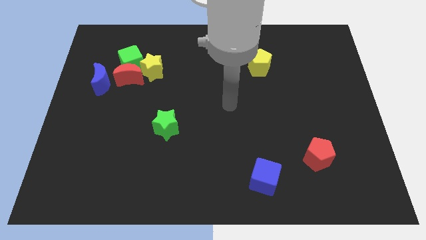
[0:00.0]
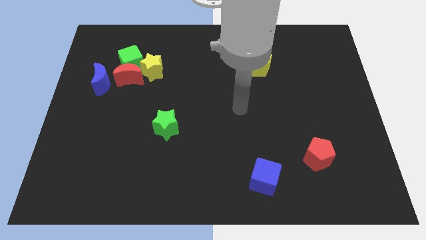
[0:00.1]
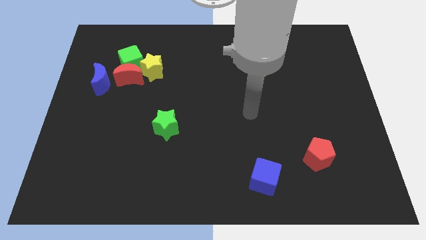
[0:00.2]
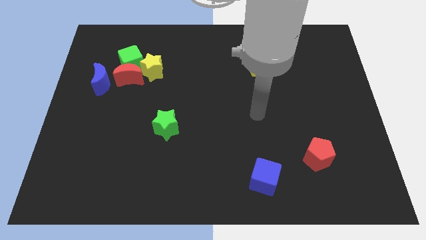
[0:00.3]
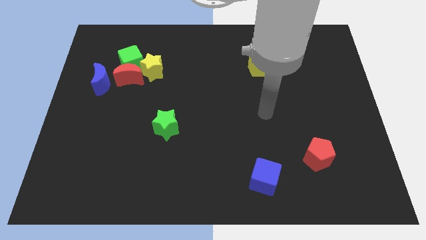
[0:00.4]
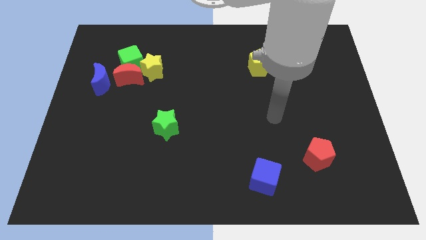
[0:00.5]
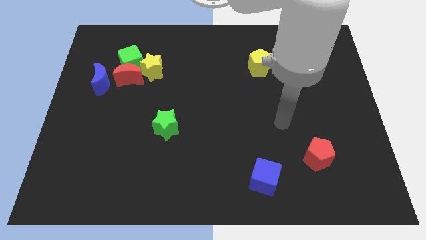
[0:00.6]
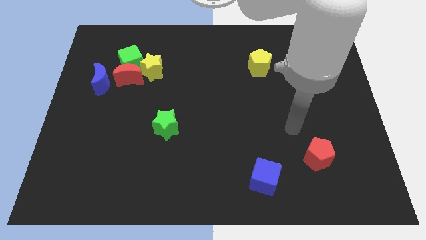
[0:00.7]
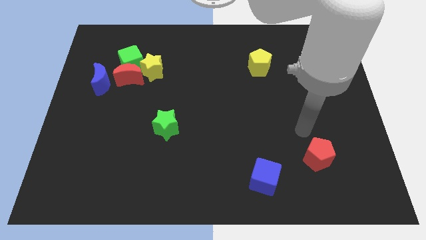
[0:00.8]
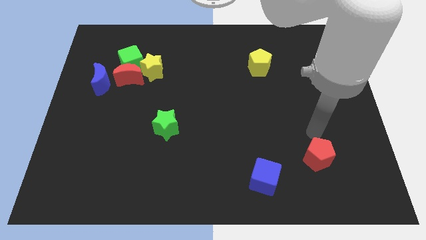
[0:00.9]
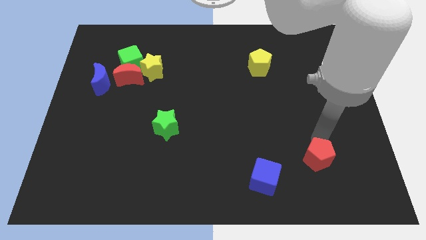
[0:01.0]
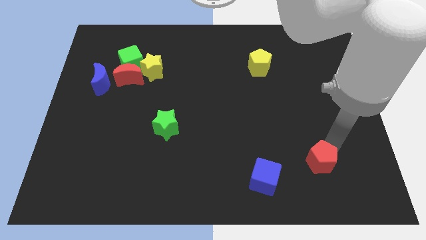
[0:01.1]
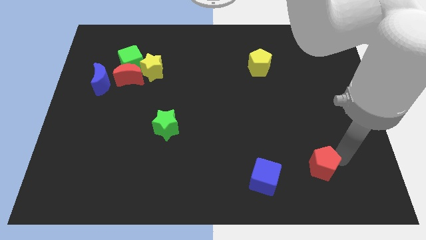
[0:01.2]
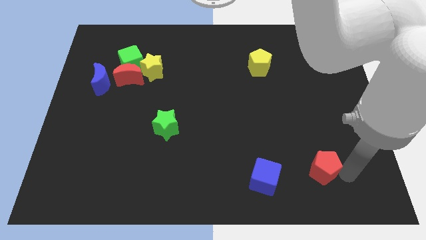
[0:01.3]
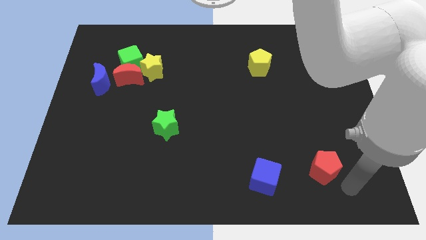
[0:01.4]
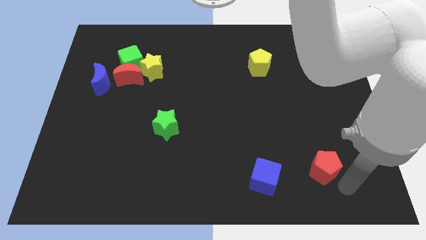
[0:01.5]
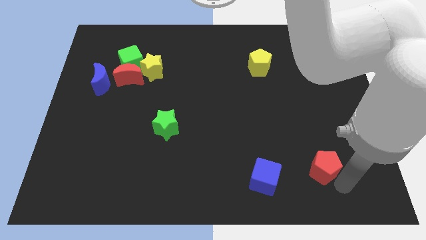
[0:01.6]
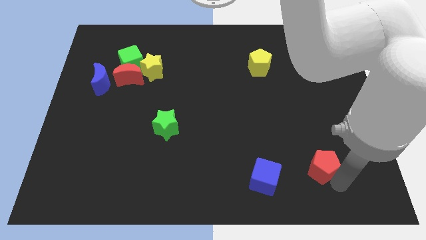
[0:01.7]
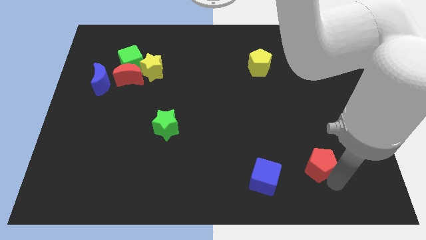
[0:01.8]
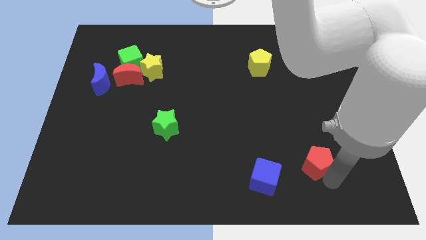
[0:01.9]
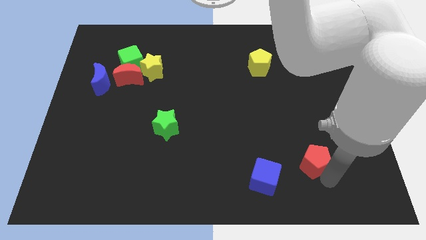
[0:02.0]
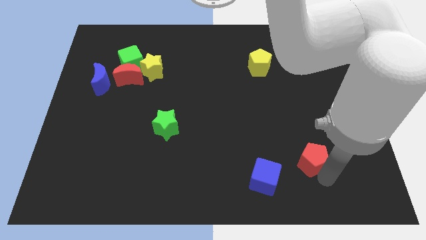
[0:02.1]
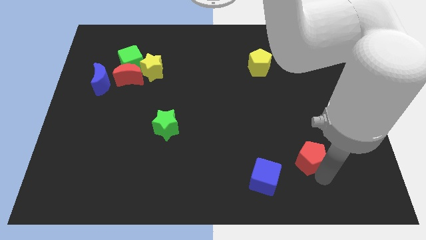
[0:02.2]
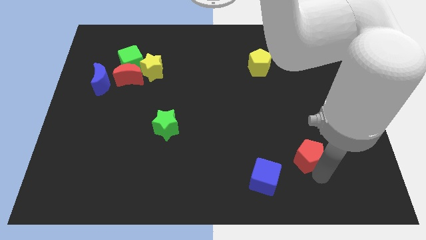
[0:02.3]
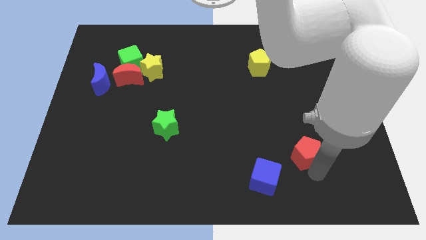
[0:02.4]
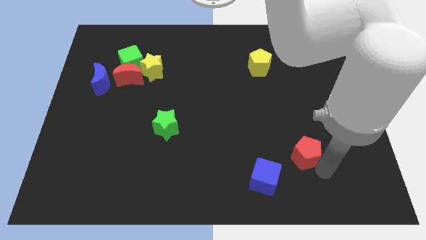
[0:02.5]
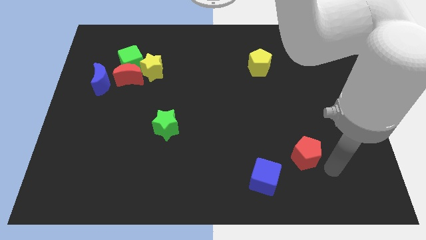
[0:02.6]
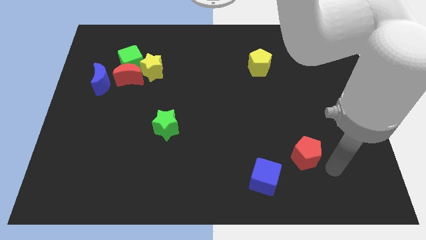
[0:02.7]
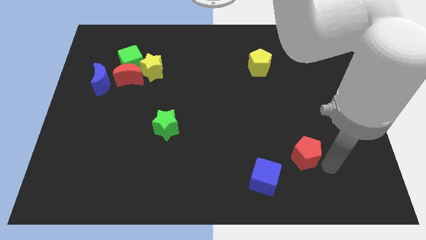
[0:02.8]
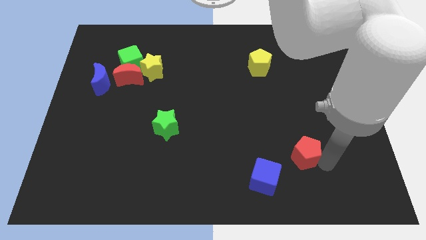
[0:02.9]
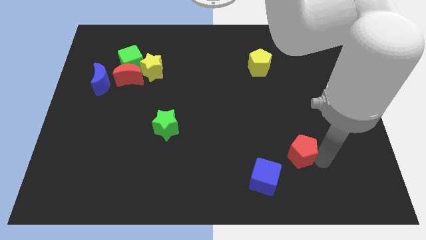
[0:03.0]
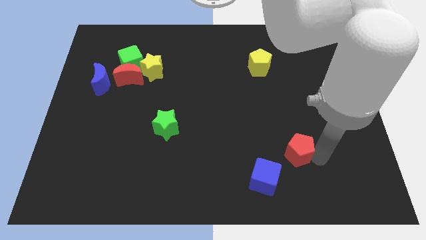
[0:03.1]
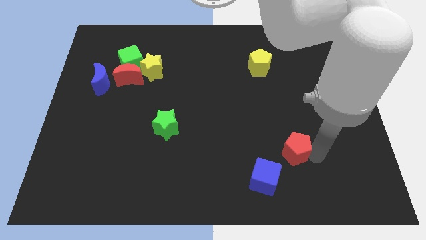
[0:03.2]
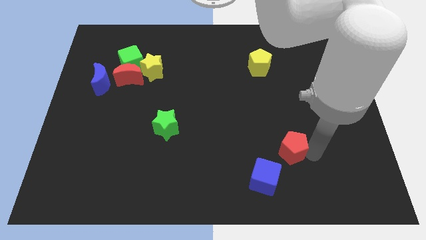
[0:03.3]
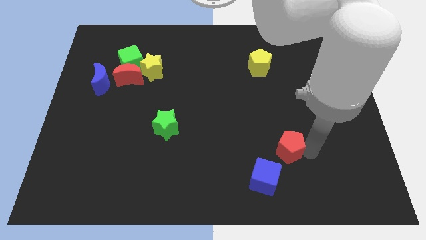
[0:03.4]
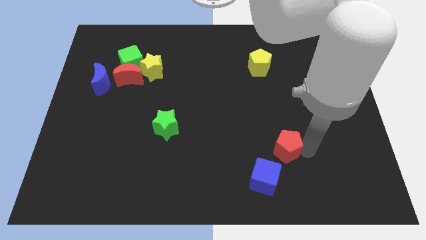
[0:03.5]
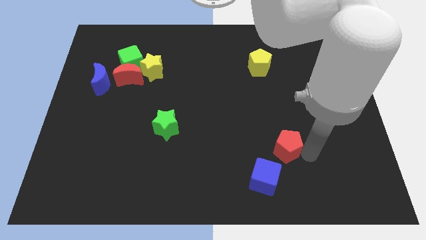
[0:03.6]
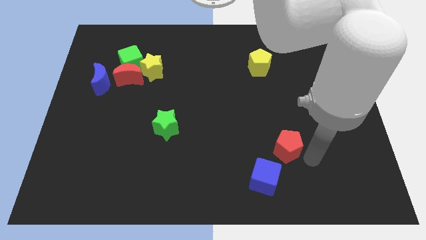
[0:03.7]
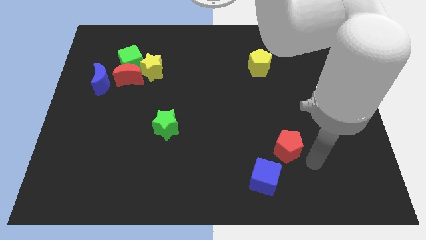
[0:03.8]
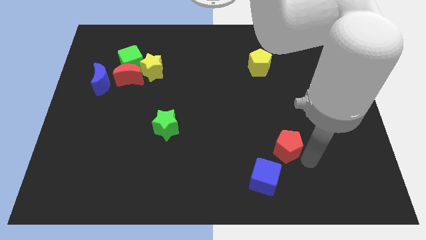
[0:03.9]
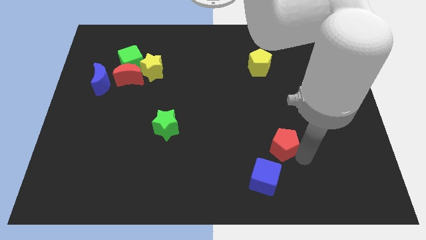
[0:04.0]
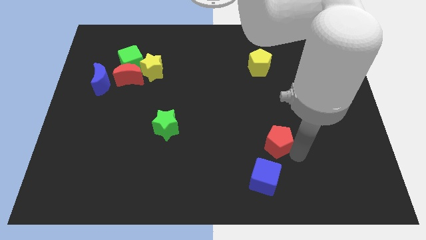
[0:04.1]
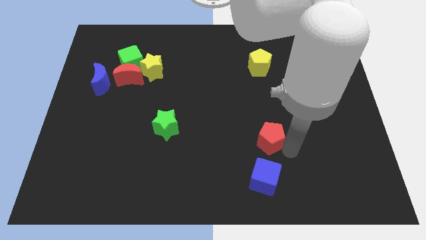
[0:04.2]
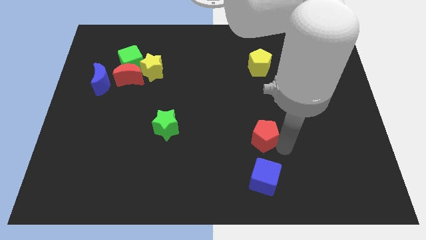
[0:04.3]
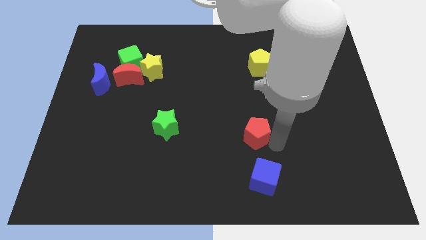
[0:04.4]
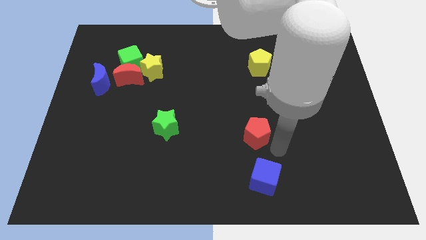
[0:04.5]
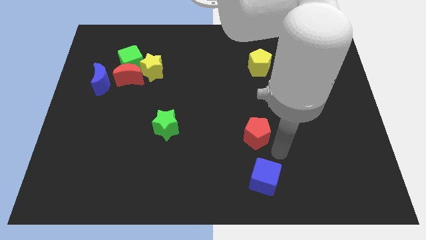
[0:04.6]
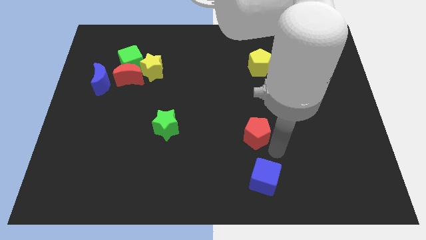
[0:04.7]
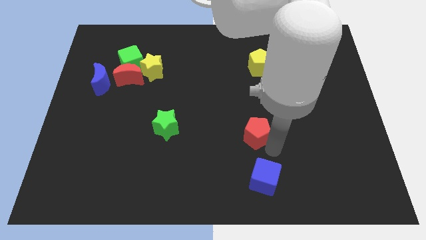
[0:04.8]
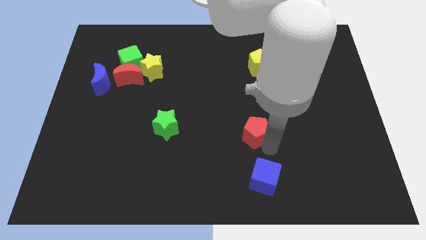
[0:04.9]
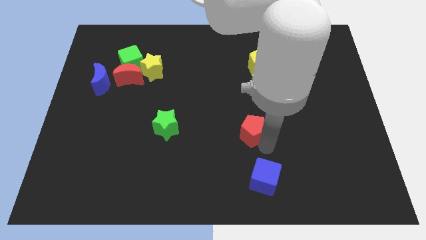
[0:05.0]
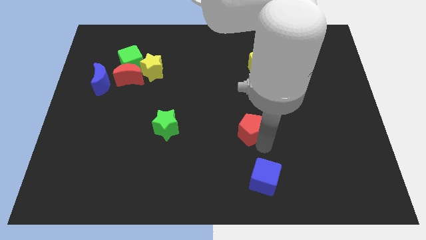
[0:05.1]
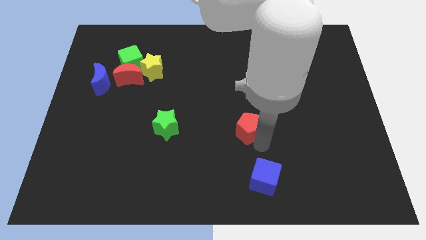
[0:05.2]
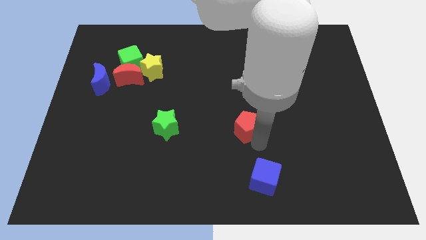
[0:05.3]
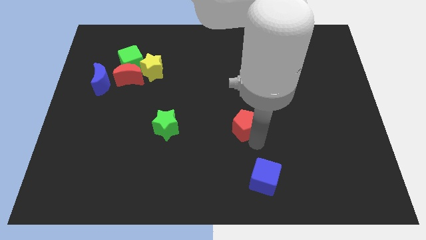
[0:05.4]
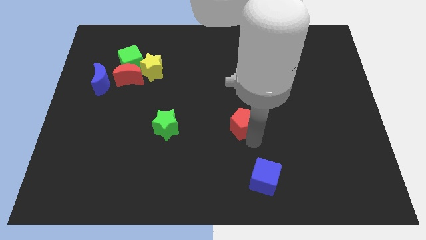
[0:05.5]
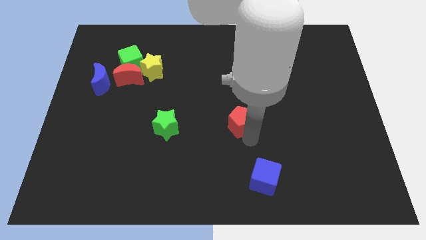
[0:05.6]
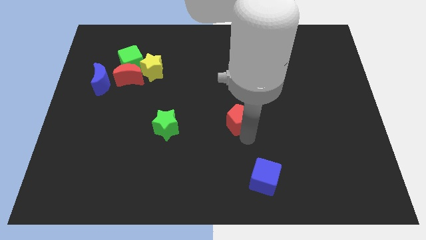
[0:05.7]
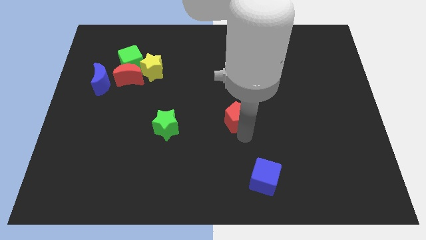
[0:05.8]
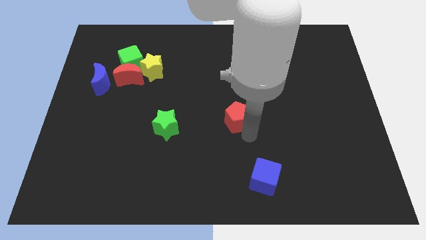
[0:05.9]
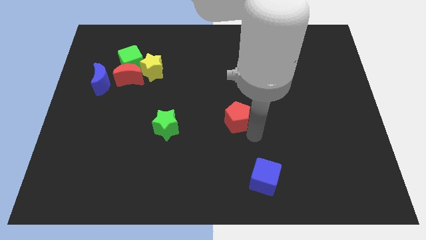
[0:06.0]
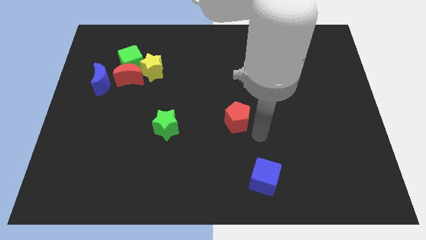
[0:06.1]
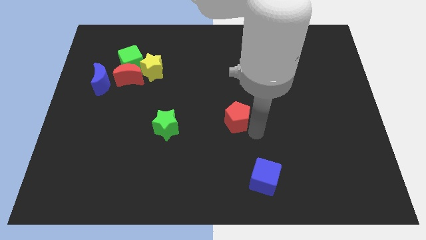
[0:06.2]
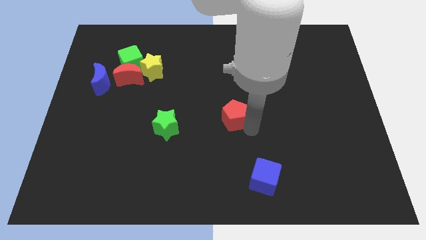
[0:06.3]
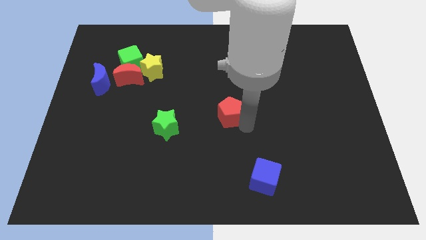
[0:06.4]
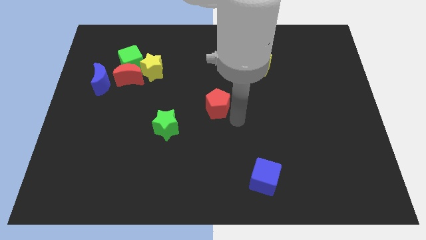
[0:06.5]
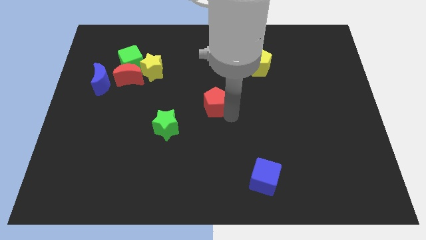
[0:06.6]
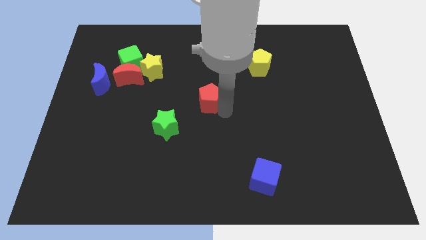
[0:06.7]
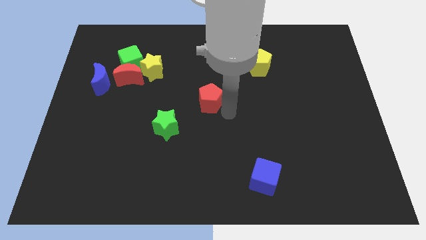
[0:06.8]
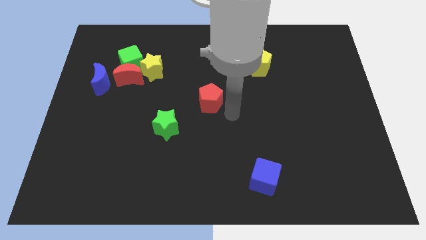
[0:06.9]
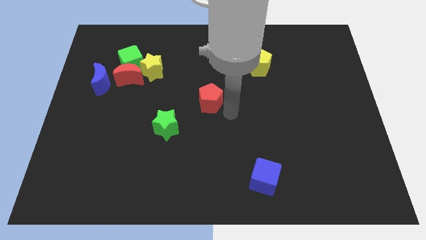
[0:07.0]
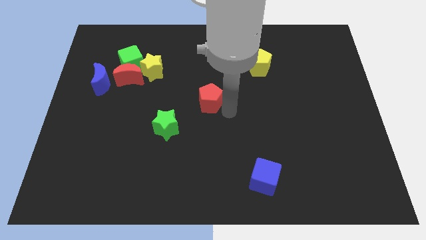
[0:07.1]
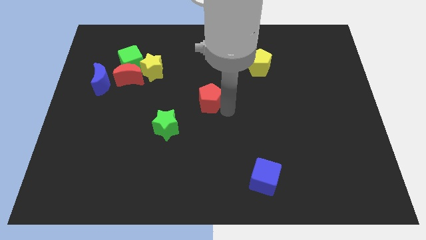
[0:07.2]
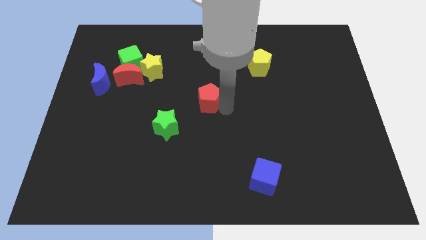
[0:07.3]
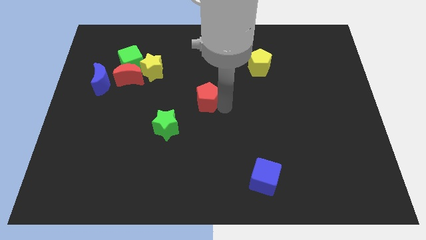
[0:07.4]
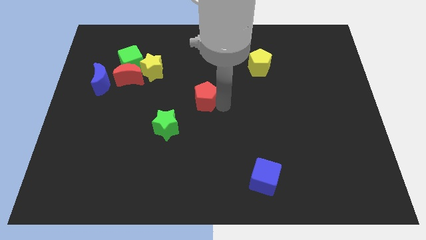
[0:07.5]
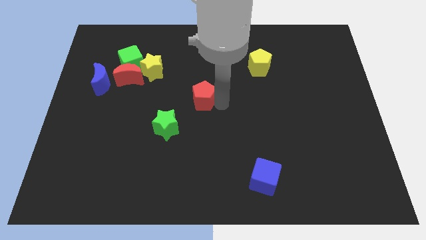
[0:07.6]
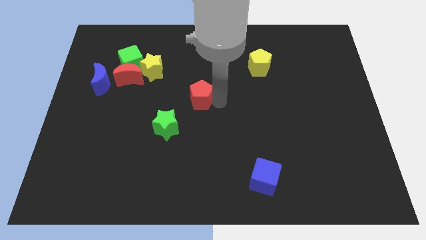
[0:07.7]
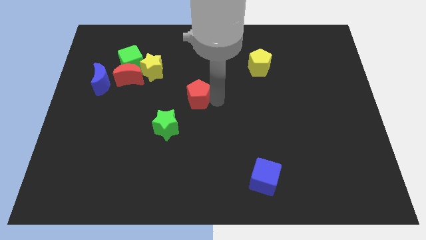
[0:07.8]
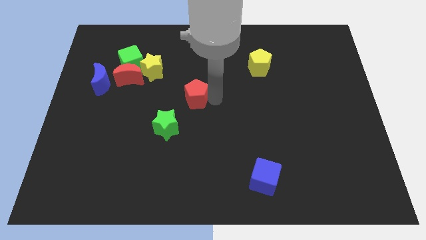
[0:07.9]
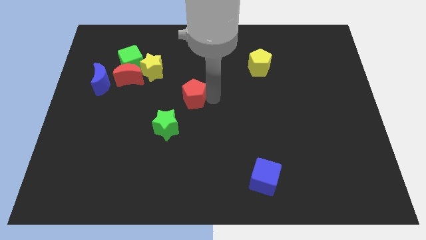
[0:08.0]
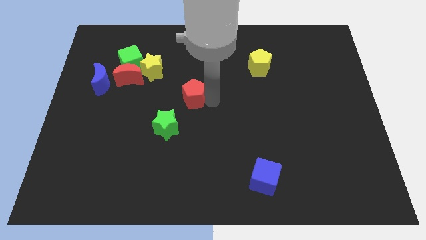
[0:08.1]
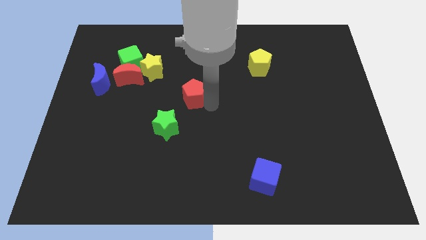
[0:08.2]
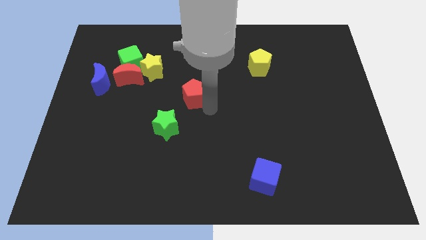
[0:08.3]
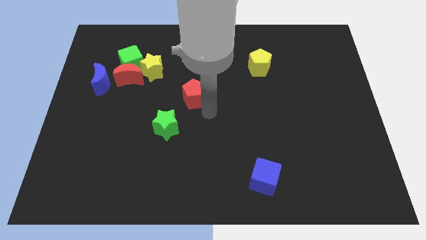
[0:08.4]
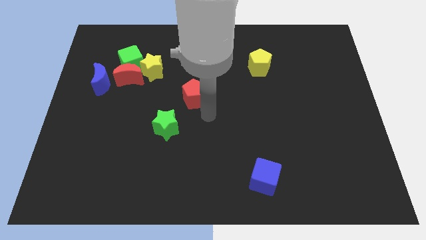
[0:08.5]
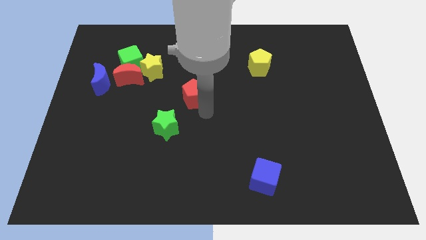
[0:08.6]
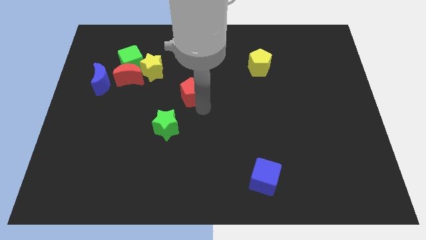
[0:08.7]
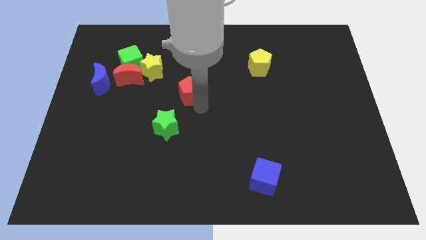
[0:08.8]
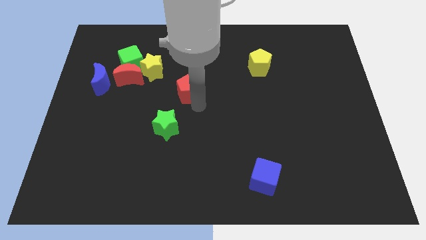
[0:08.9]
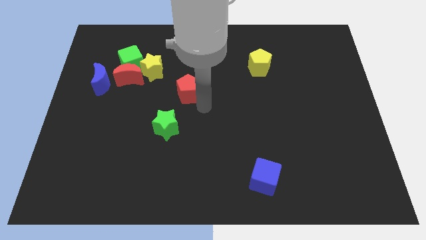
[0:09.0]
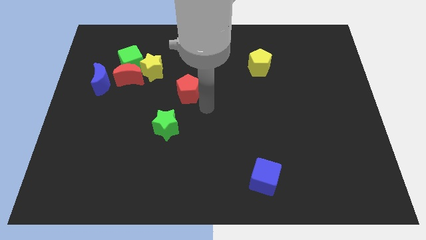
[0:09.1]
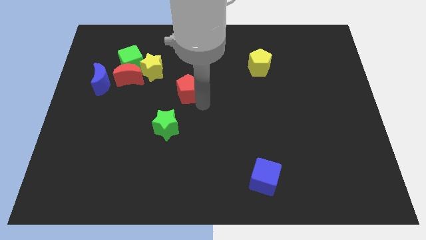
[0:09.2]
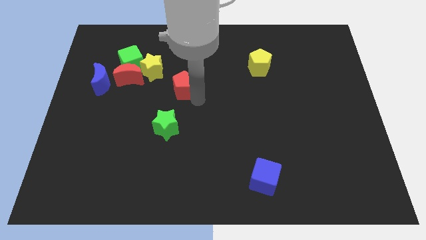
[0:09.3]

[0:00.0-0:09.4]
push the red pentagon to the right side of the red moon
